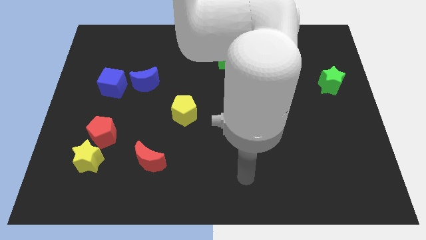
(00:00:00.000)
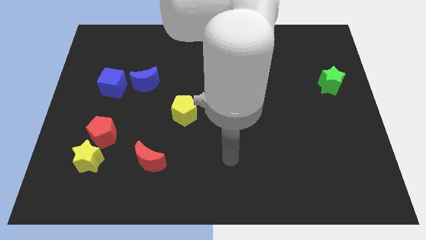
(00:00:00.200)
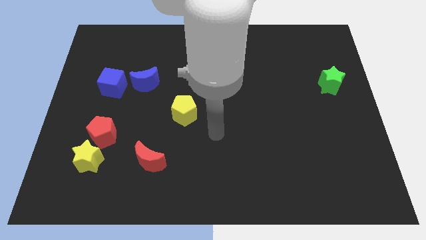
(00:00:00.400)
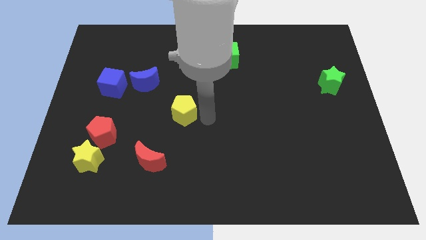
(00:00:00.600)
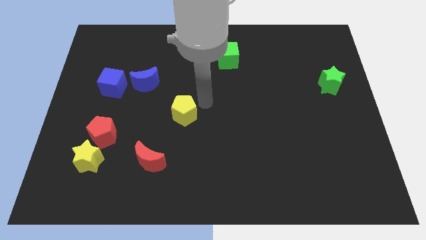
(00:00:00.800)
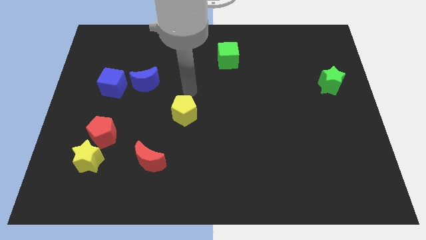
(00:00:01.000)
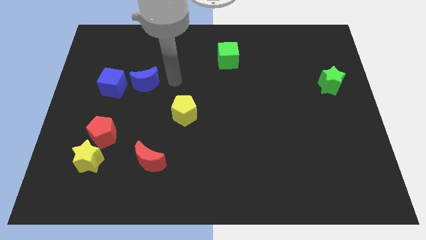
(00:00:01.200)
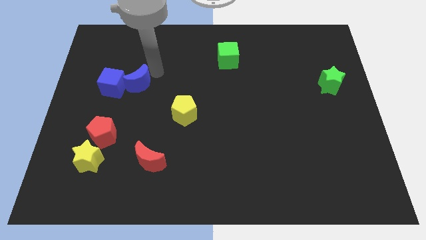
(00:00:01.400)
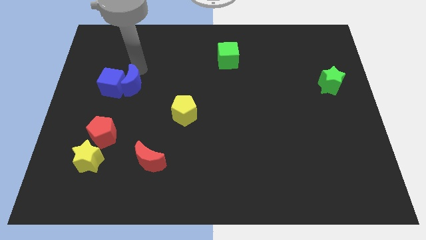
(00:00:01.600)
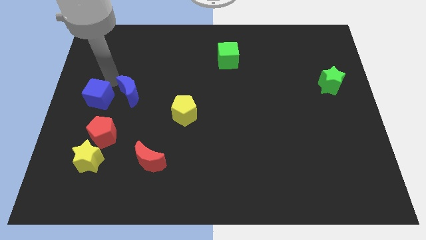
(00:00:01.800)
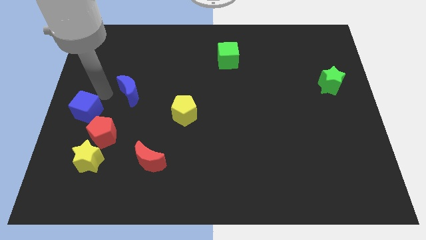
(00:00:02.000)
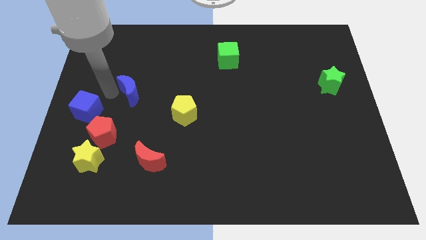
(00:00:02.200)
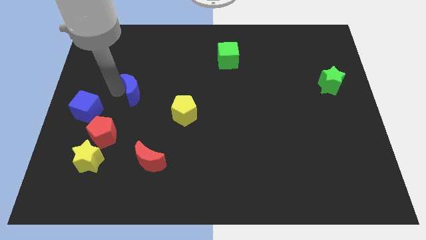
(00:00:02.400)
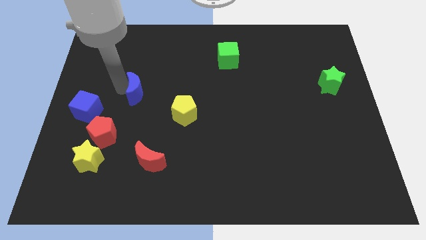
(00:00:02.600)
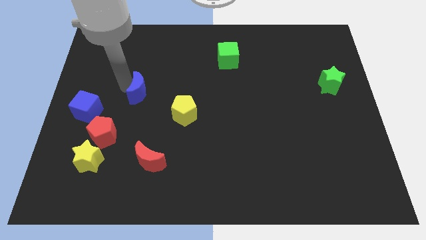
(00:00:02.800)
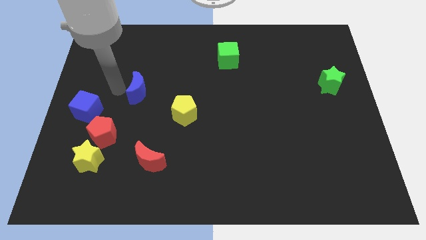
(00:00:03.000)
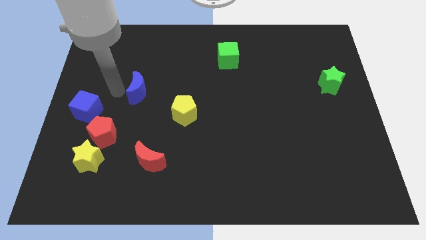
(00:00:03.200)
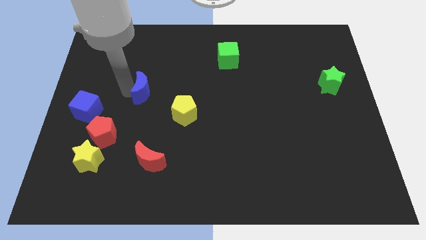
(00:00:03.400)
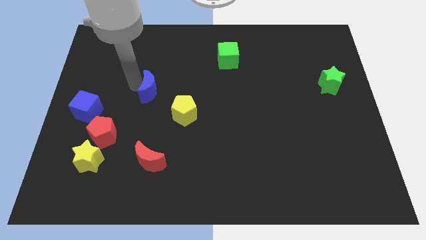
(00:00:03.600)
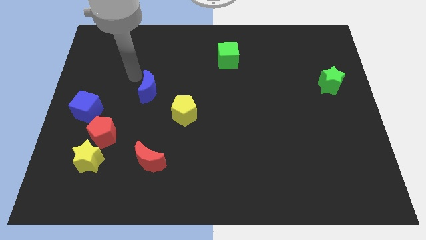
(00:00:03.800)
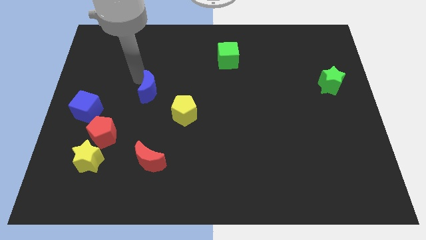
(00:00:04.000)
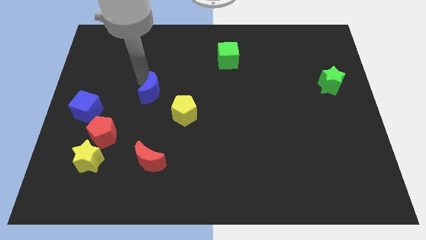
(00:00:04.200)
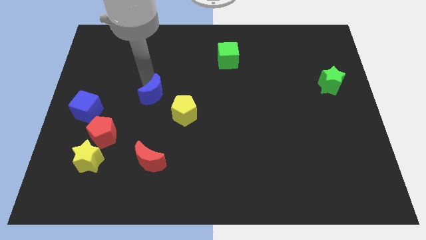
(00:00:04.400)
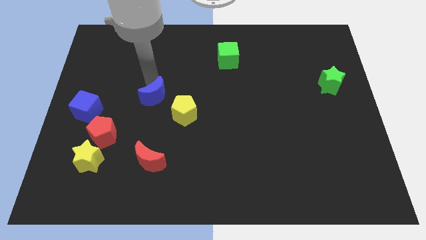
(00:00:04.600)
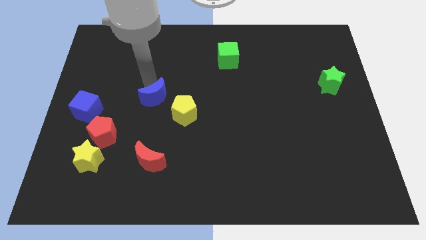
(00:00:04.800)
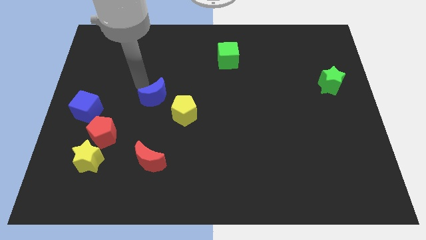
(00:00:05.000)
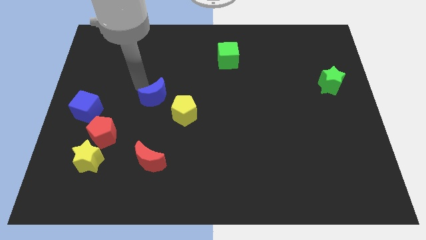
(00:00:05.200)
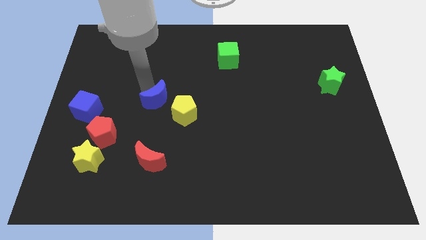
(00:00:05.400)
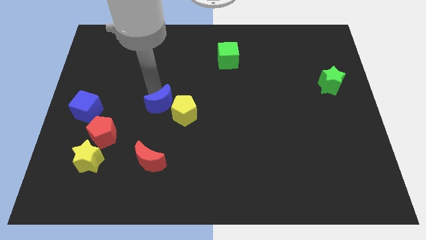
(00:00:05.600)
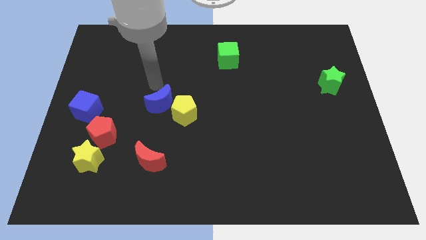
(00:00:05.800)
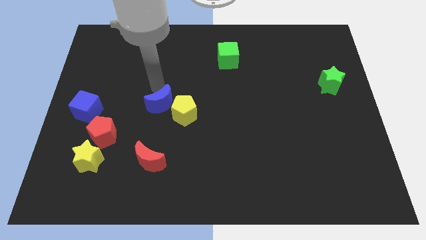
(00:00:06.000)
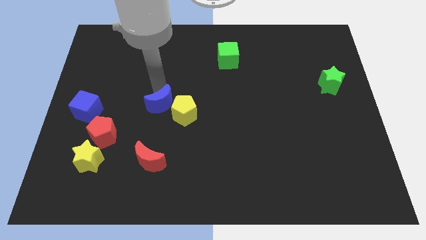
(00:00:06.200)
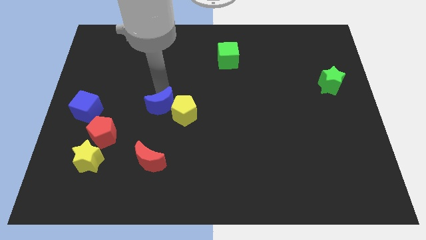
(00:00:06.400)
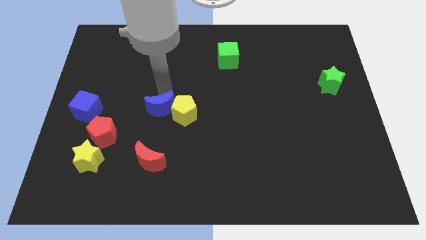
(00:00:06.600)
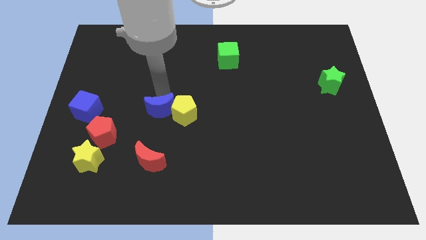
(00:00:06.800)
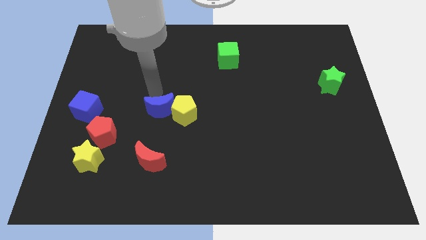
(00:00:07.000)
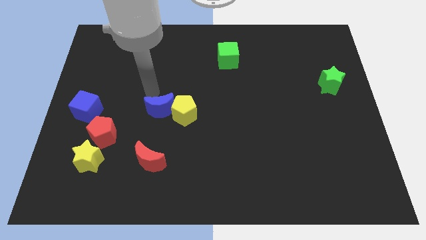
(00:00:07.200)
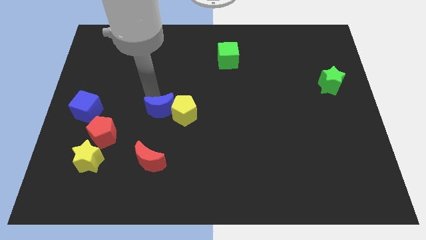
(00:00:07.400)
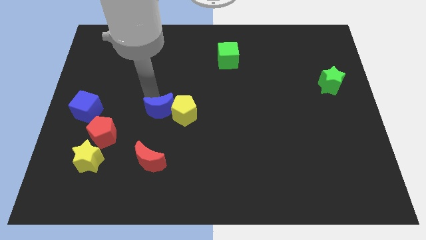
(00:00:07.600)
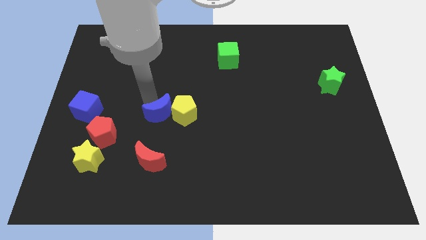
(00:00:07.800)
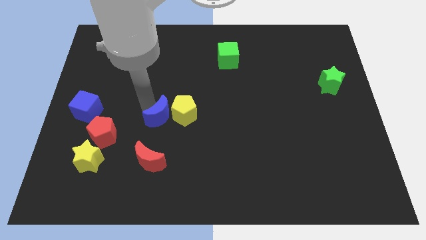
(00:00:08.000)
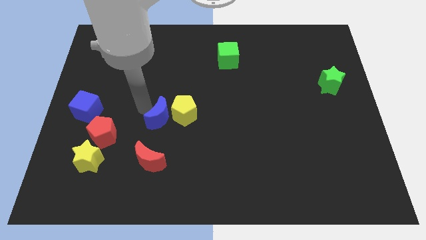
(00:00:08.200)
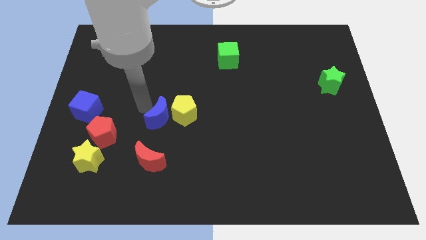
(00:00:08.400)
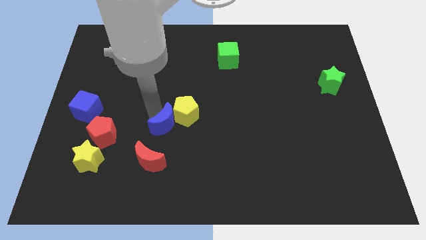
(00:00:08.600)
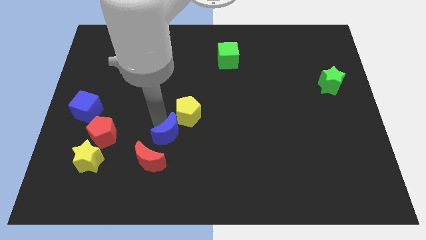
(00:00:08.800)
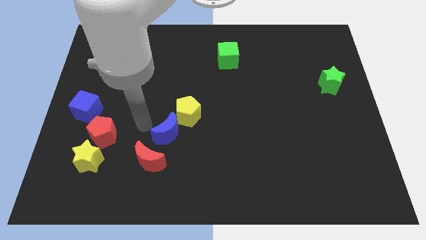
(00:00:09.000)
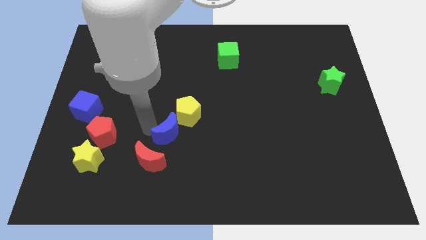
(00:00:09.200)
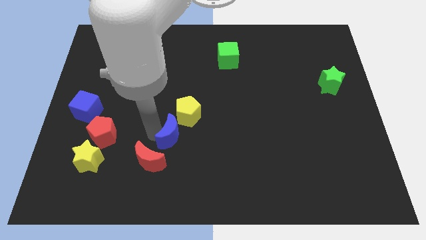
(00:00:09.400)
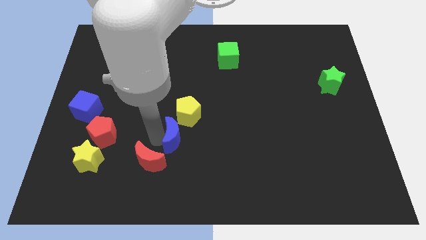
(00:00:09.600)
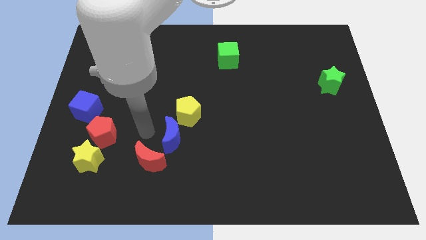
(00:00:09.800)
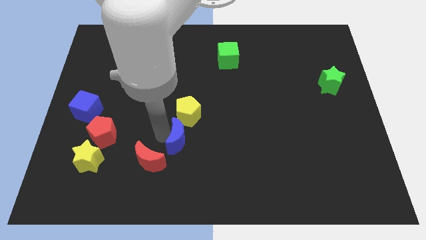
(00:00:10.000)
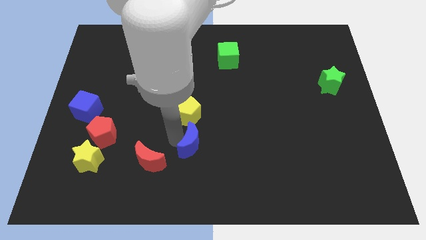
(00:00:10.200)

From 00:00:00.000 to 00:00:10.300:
slide the blue moon diagonally downwards and right

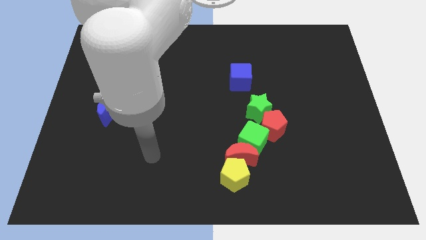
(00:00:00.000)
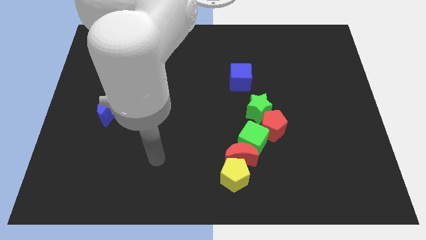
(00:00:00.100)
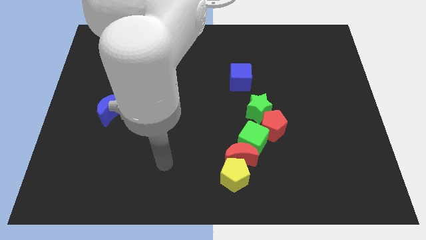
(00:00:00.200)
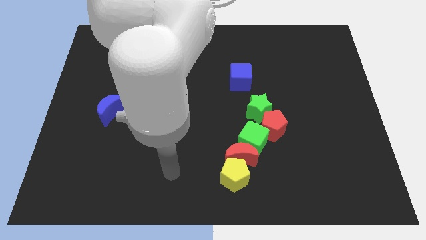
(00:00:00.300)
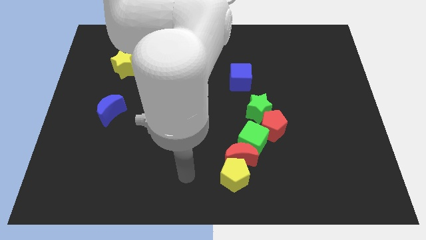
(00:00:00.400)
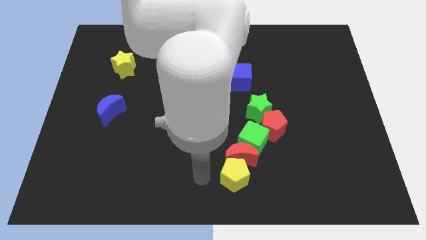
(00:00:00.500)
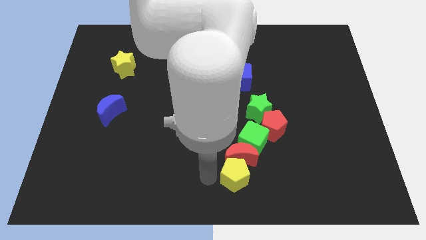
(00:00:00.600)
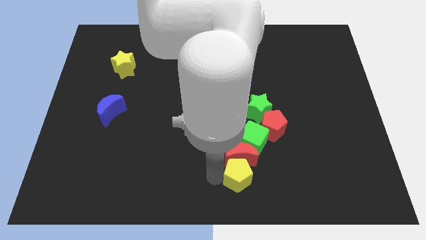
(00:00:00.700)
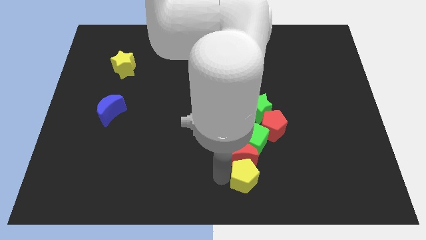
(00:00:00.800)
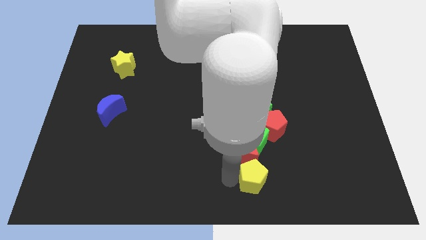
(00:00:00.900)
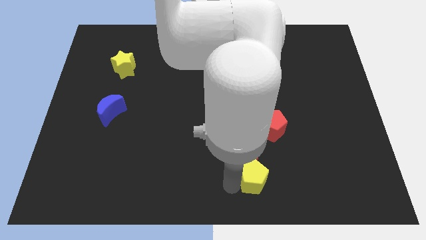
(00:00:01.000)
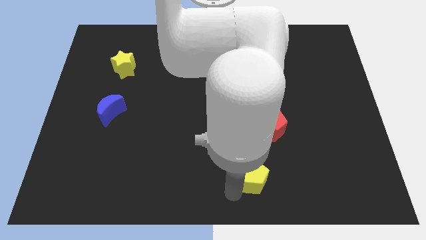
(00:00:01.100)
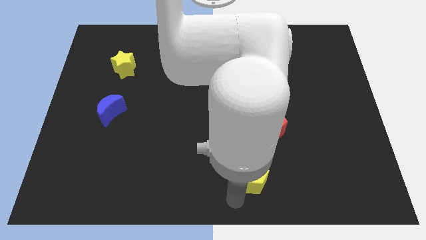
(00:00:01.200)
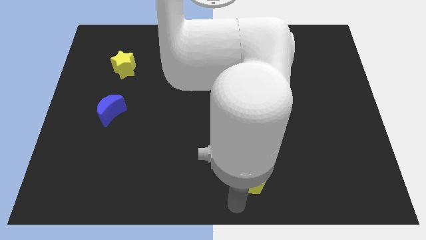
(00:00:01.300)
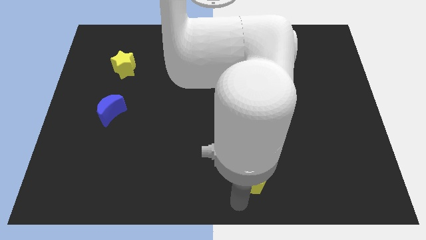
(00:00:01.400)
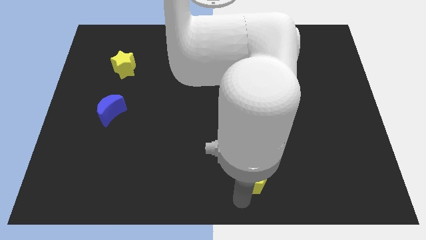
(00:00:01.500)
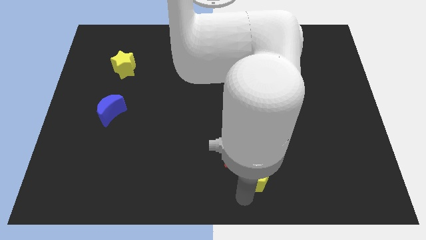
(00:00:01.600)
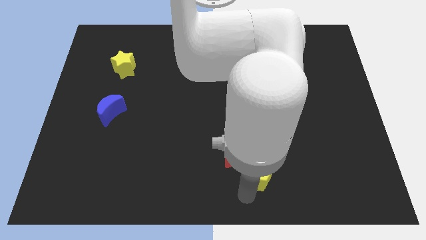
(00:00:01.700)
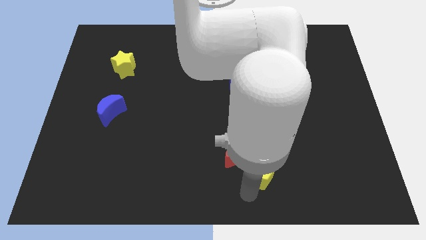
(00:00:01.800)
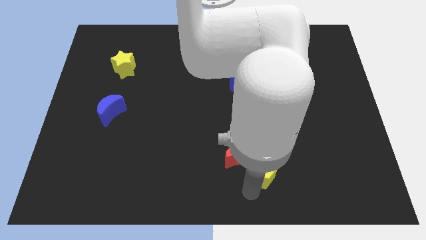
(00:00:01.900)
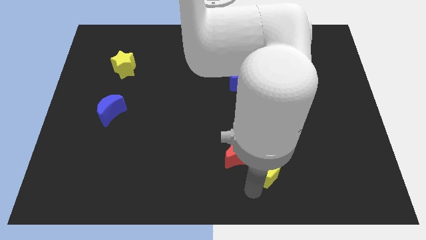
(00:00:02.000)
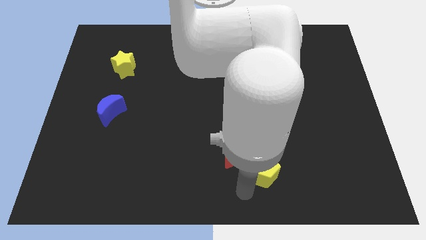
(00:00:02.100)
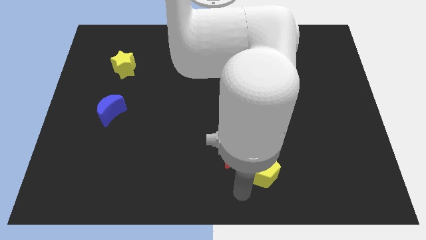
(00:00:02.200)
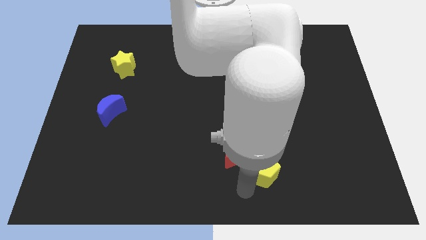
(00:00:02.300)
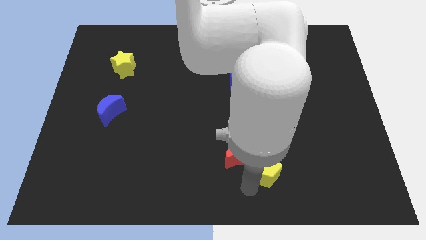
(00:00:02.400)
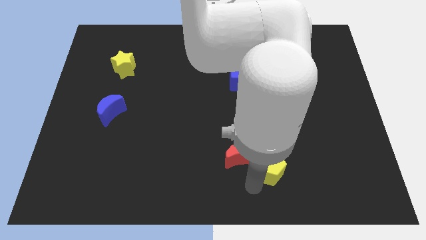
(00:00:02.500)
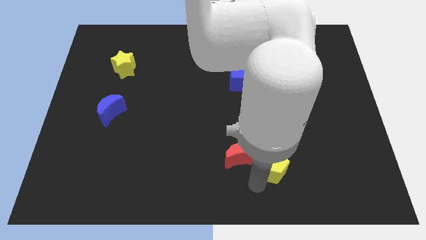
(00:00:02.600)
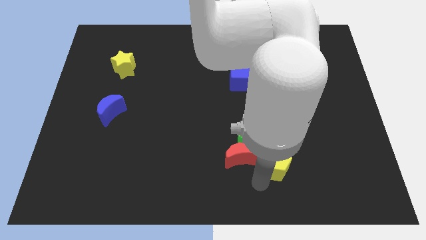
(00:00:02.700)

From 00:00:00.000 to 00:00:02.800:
move the yellow pentagon a little bit up and right
